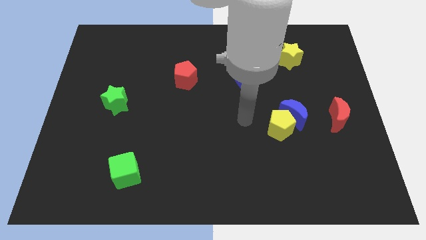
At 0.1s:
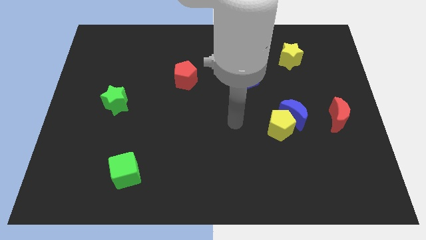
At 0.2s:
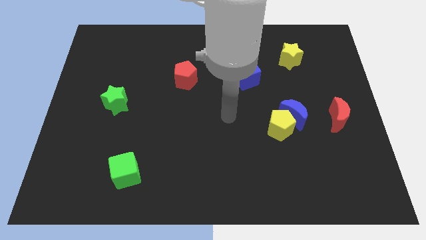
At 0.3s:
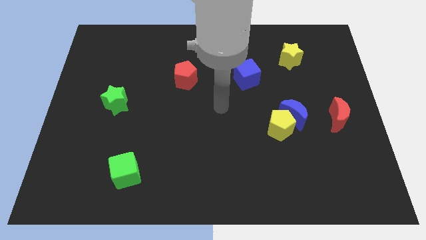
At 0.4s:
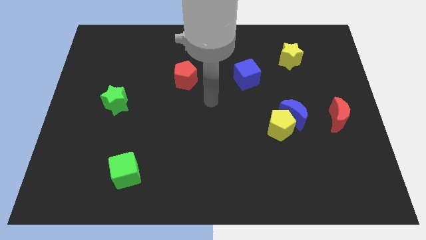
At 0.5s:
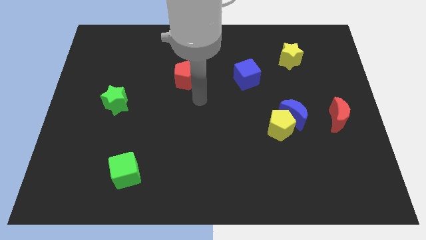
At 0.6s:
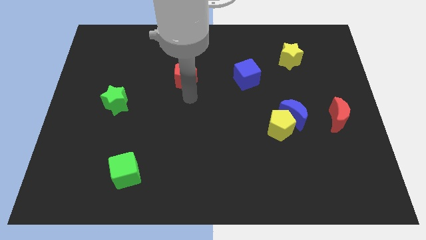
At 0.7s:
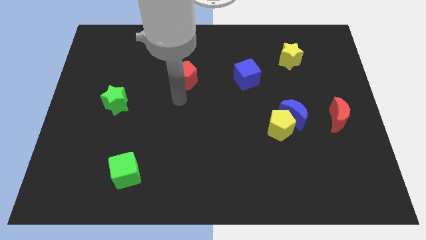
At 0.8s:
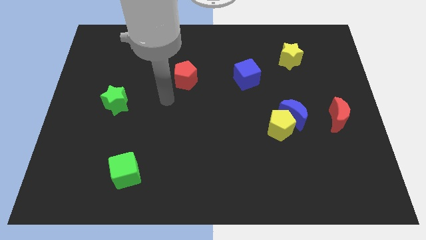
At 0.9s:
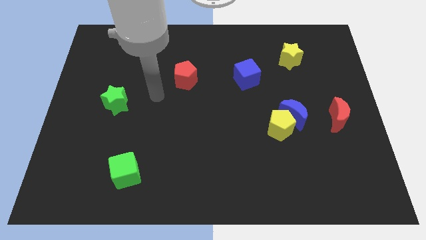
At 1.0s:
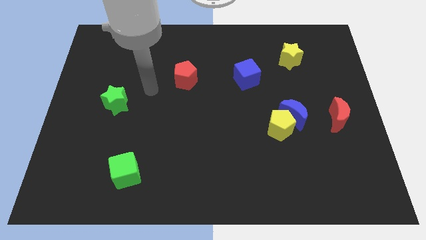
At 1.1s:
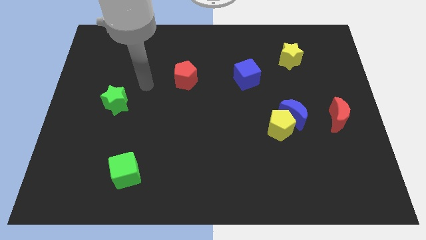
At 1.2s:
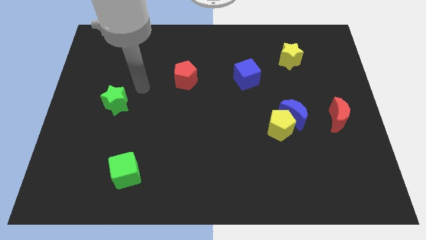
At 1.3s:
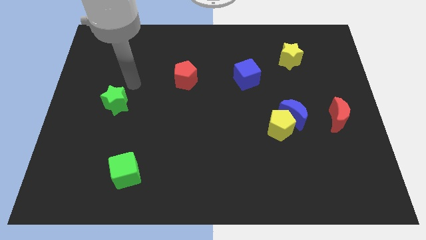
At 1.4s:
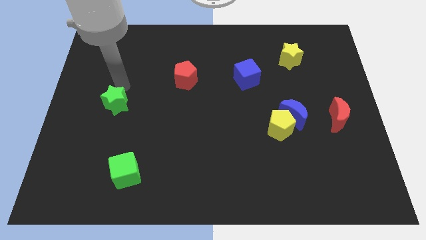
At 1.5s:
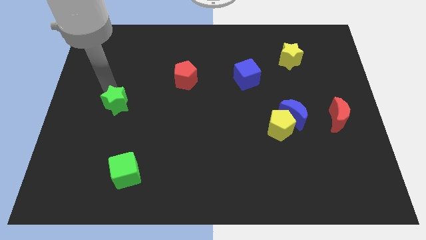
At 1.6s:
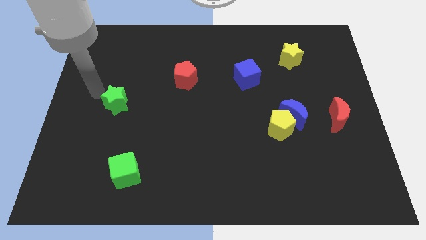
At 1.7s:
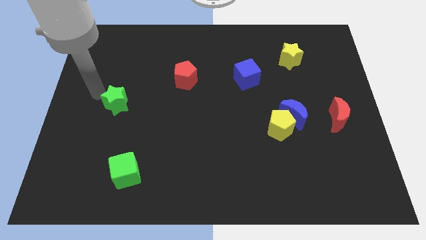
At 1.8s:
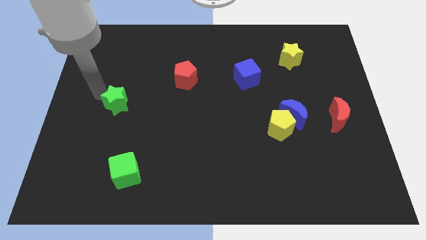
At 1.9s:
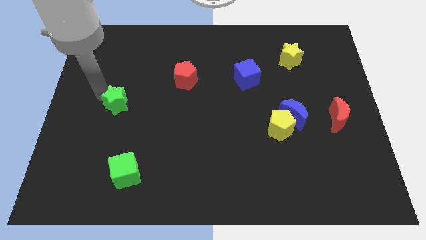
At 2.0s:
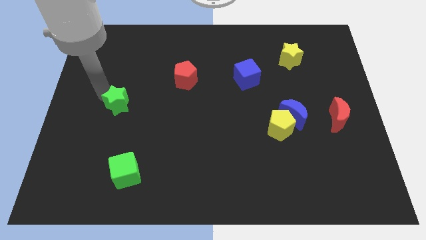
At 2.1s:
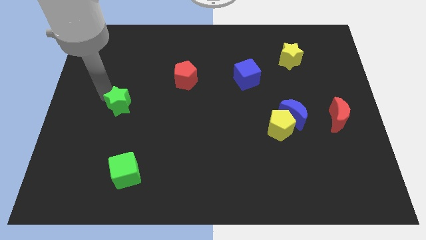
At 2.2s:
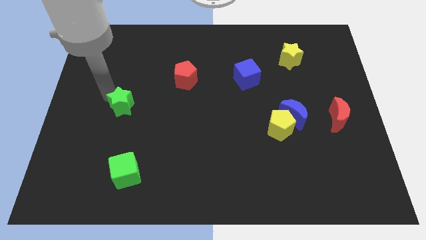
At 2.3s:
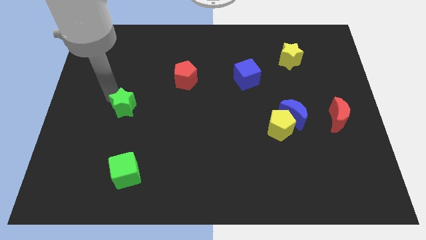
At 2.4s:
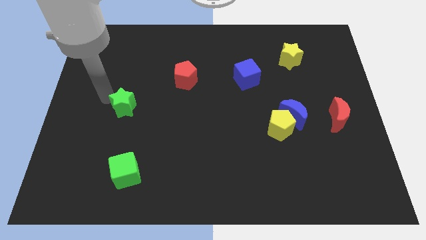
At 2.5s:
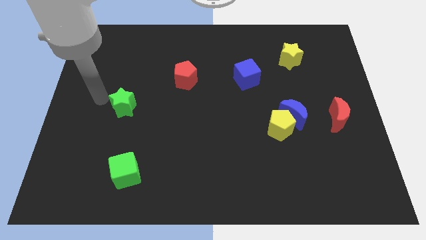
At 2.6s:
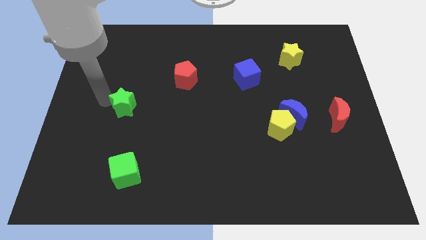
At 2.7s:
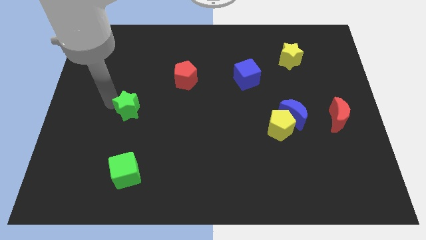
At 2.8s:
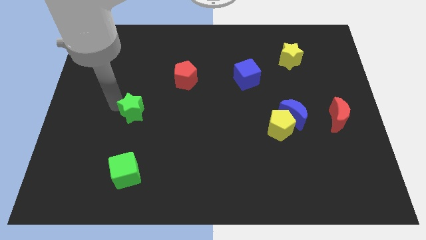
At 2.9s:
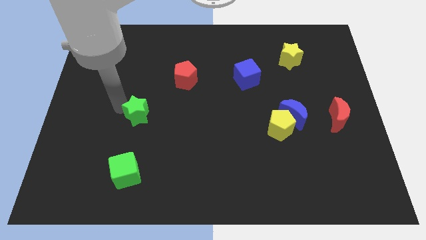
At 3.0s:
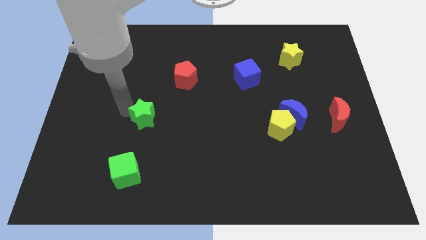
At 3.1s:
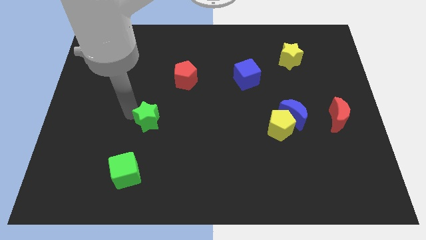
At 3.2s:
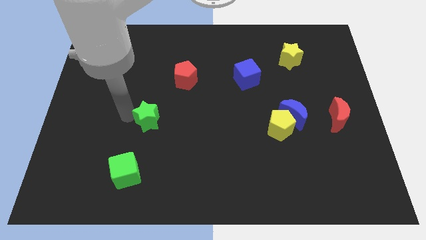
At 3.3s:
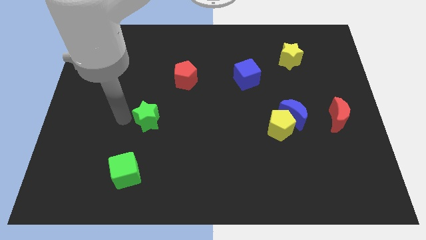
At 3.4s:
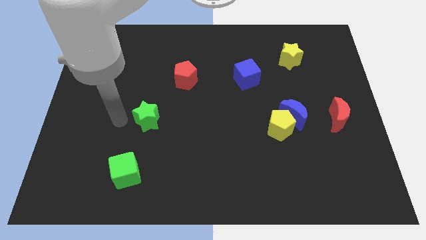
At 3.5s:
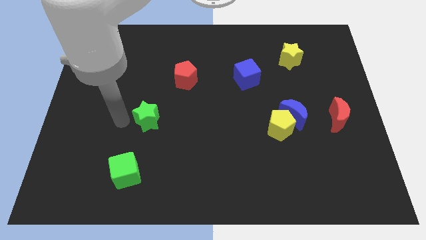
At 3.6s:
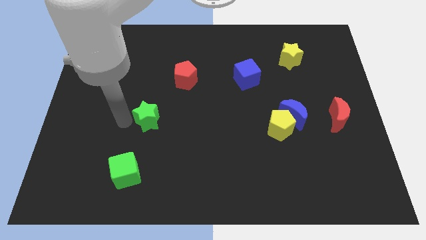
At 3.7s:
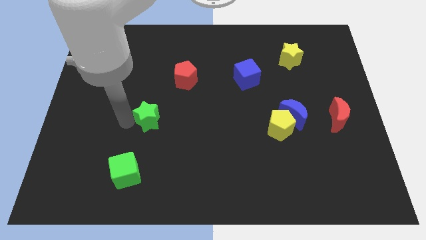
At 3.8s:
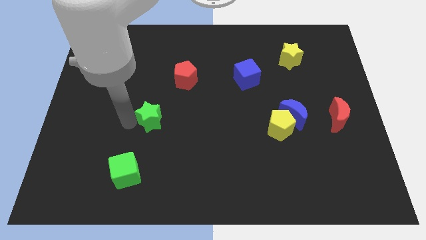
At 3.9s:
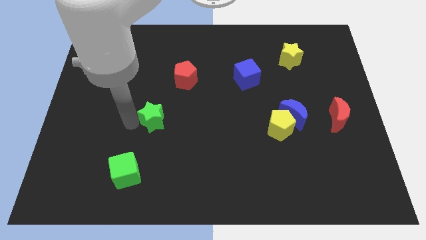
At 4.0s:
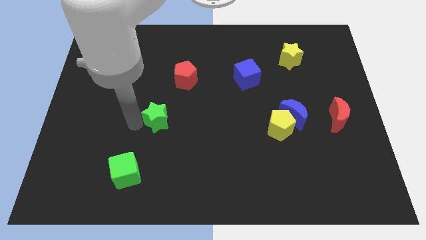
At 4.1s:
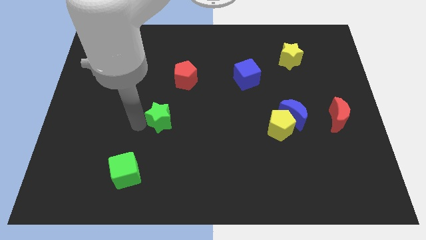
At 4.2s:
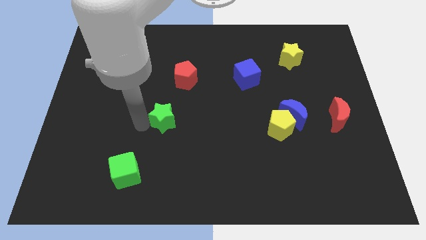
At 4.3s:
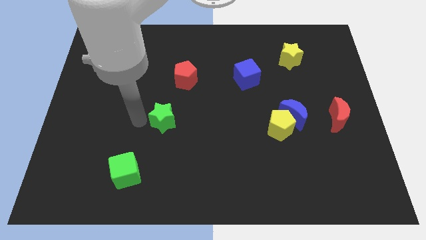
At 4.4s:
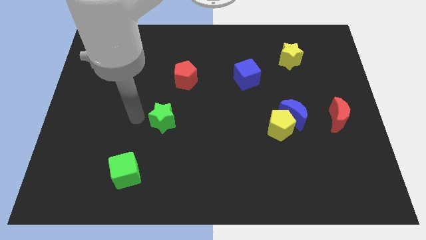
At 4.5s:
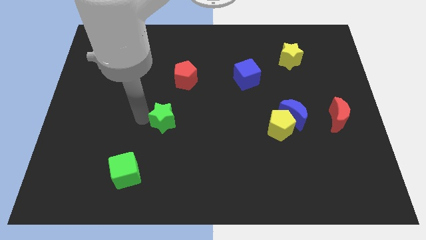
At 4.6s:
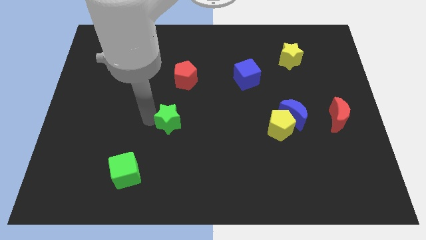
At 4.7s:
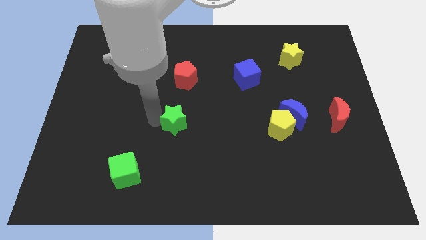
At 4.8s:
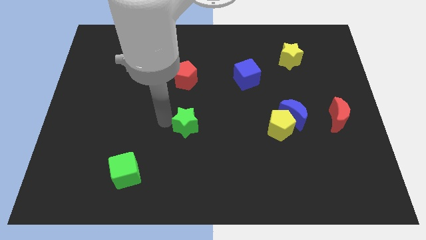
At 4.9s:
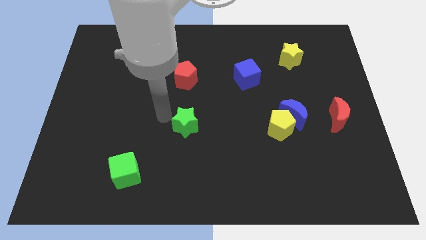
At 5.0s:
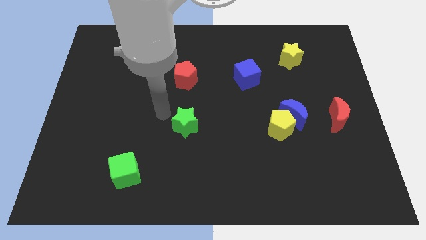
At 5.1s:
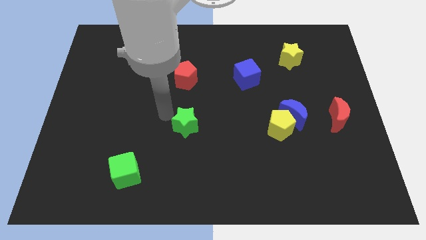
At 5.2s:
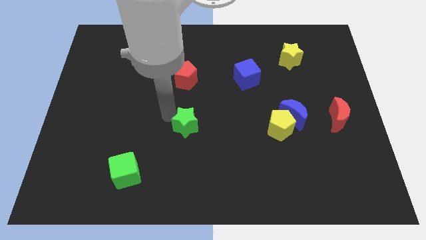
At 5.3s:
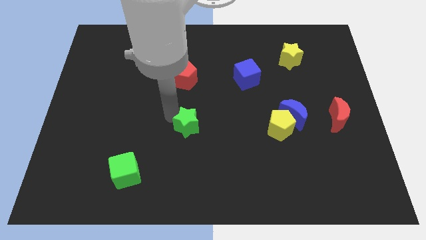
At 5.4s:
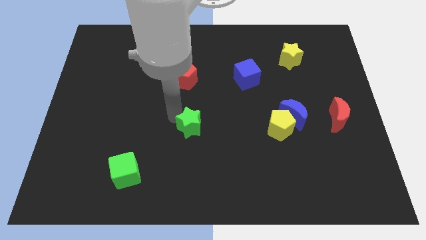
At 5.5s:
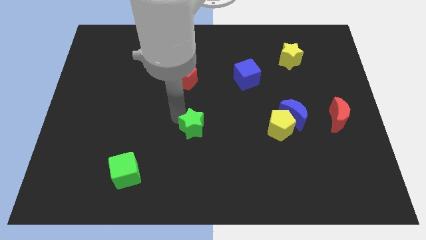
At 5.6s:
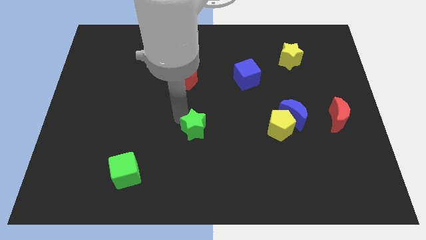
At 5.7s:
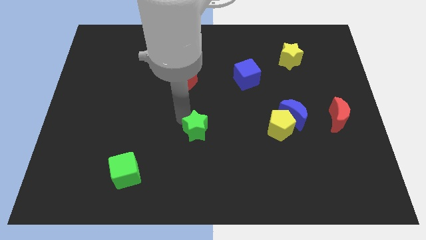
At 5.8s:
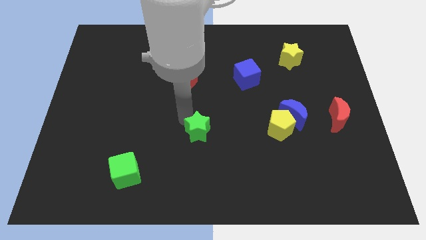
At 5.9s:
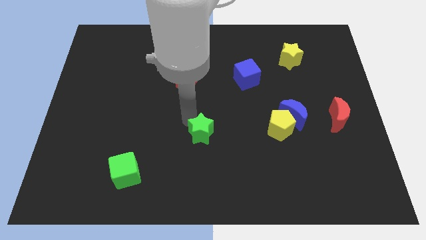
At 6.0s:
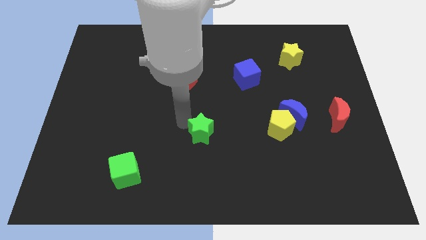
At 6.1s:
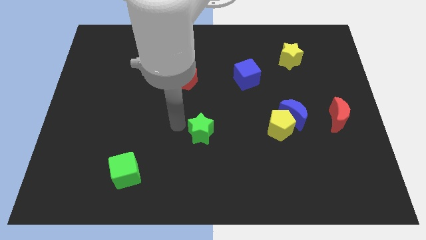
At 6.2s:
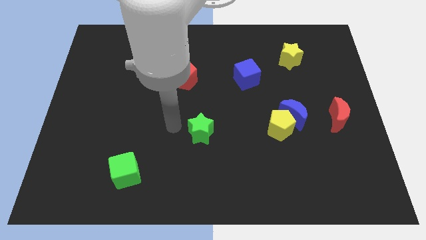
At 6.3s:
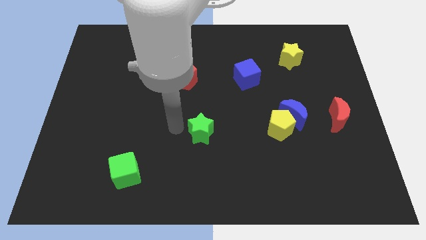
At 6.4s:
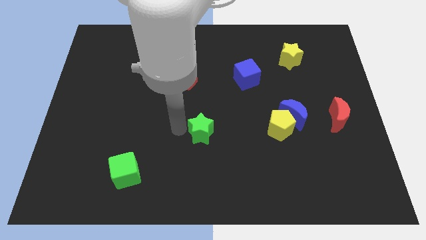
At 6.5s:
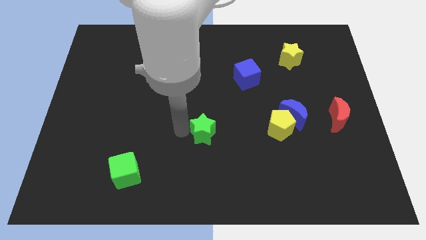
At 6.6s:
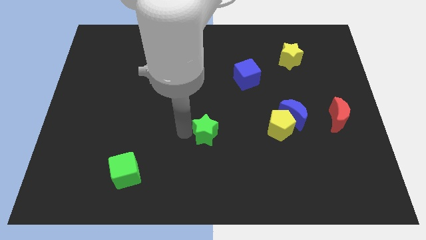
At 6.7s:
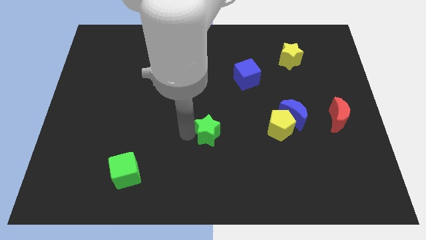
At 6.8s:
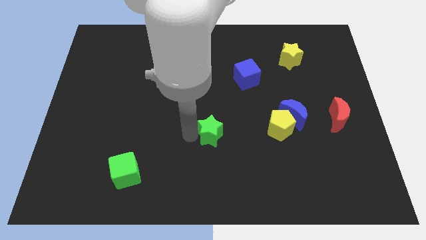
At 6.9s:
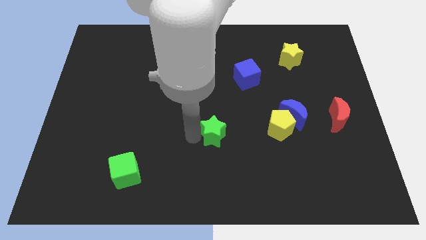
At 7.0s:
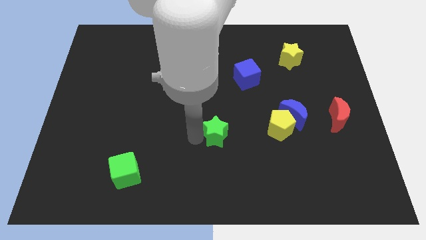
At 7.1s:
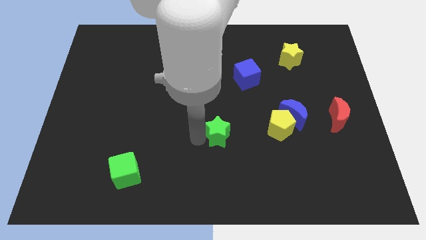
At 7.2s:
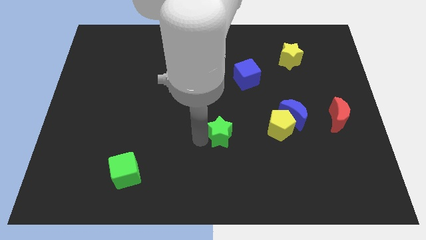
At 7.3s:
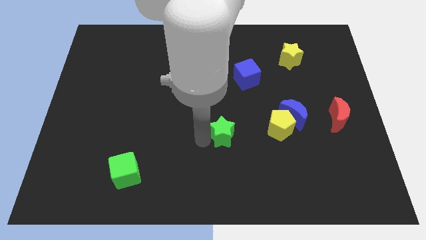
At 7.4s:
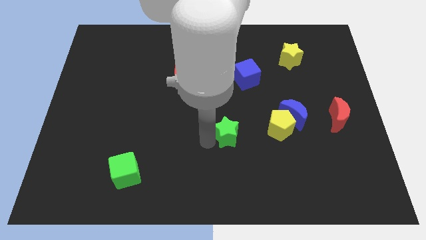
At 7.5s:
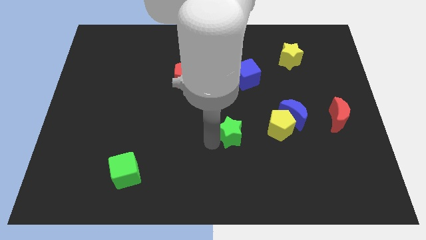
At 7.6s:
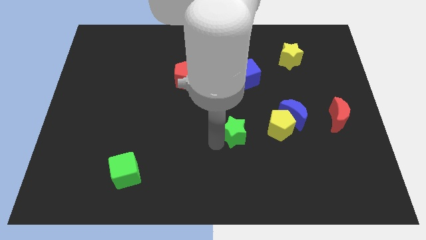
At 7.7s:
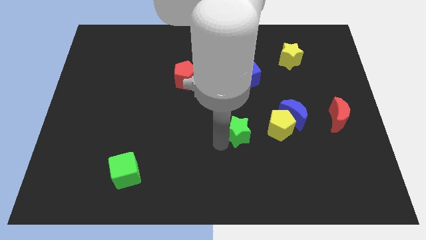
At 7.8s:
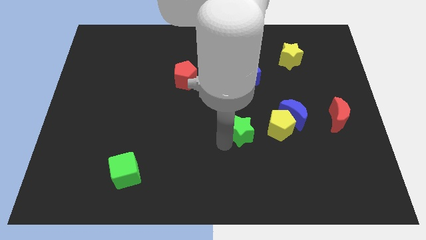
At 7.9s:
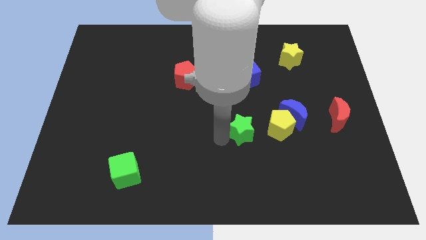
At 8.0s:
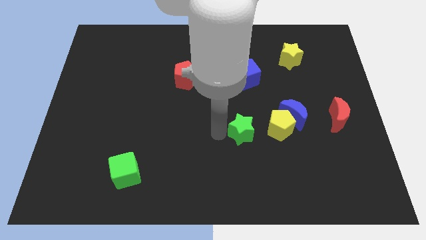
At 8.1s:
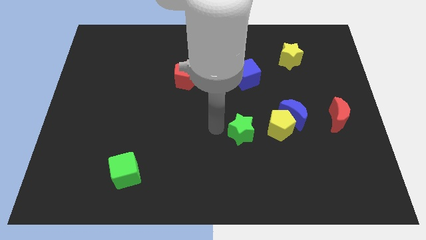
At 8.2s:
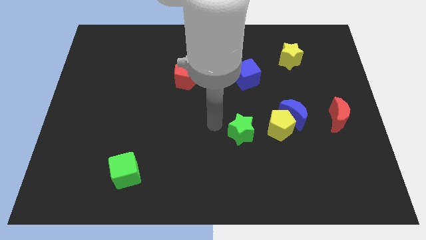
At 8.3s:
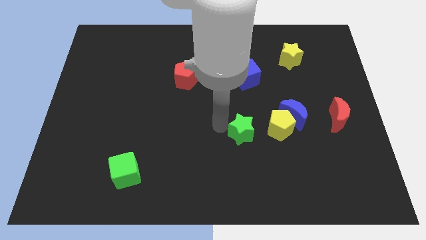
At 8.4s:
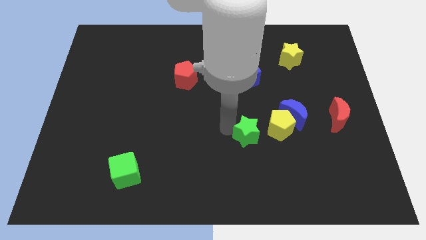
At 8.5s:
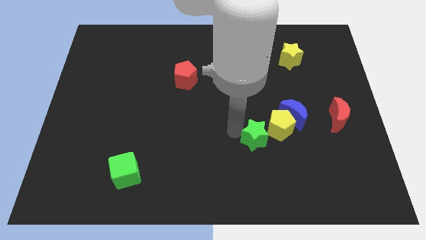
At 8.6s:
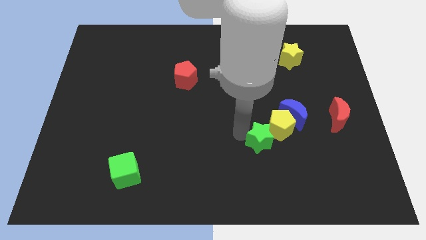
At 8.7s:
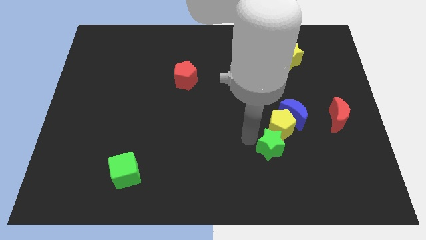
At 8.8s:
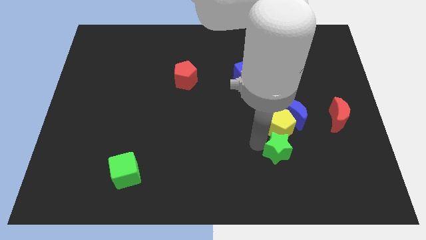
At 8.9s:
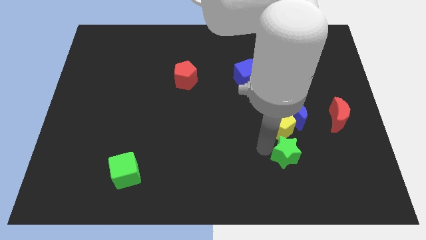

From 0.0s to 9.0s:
slide the green star to the bottom right side of the yellow pentagon
